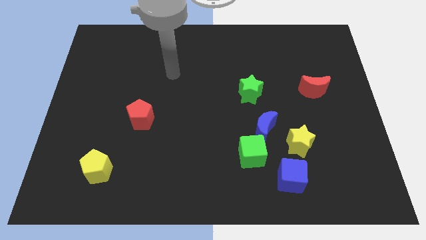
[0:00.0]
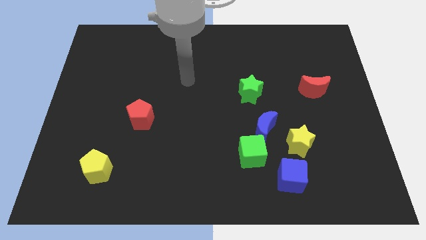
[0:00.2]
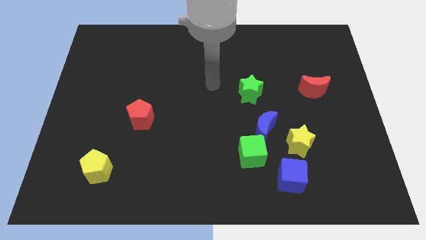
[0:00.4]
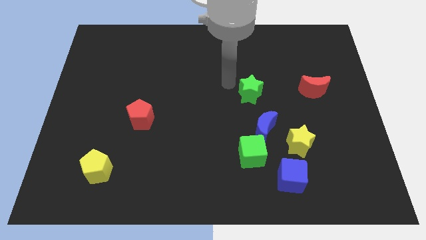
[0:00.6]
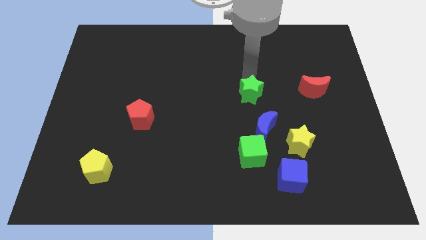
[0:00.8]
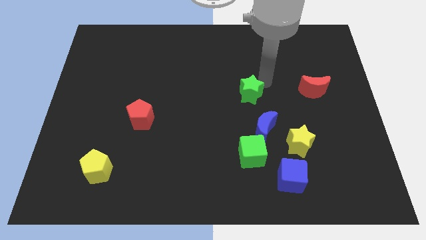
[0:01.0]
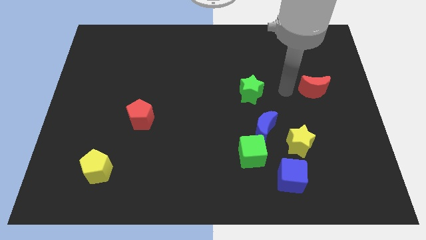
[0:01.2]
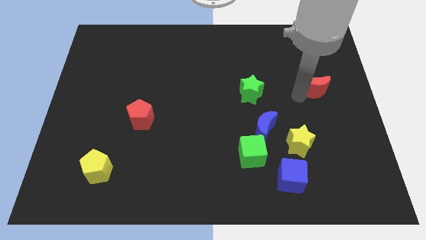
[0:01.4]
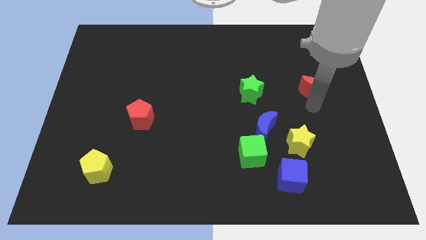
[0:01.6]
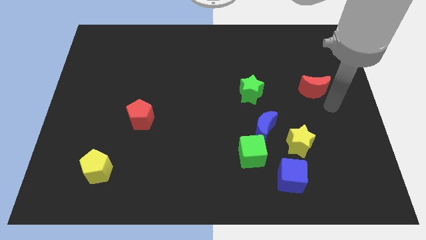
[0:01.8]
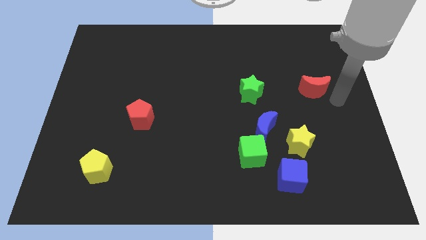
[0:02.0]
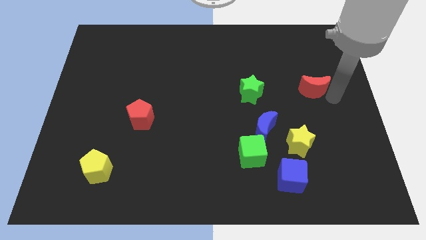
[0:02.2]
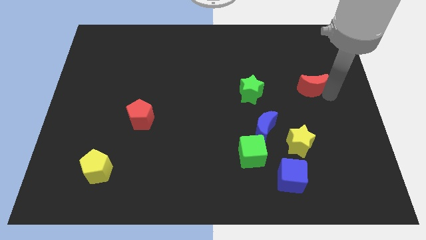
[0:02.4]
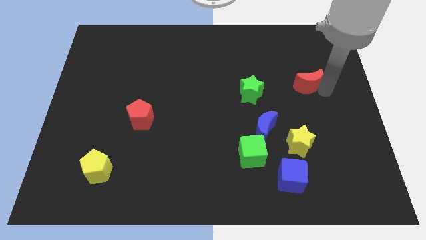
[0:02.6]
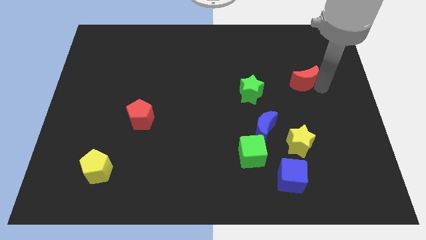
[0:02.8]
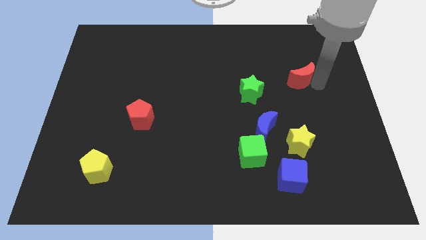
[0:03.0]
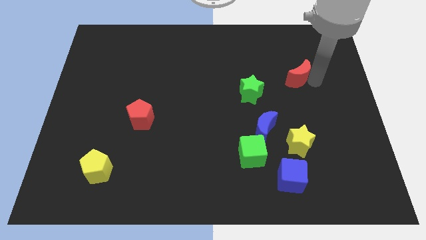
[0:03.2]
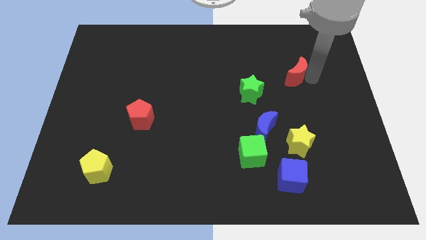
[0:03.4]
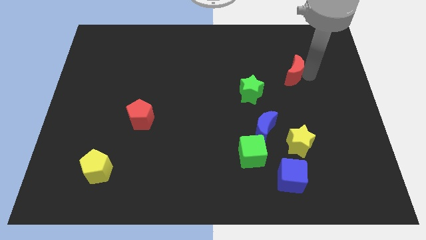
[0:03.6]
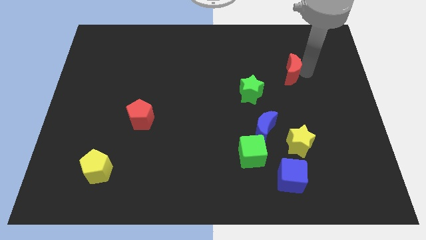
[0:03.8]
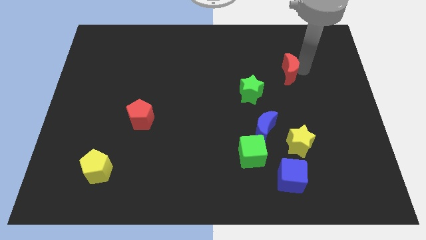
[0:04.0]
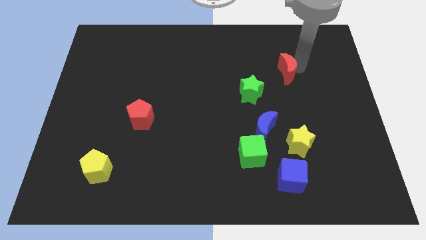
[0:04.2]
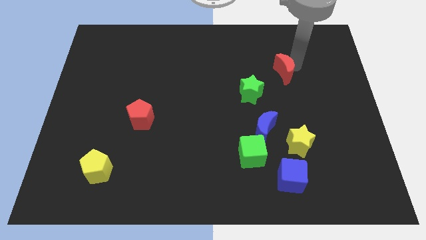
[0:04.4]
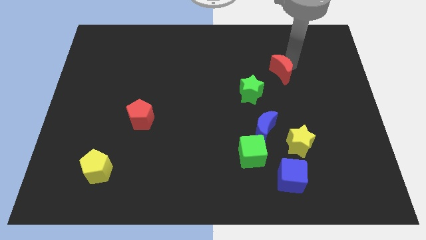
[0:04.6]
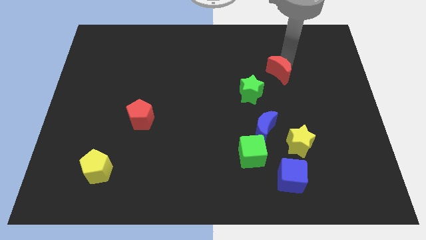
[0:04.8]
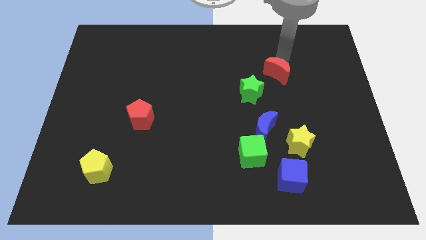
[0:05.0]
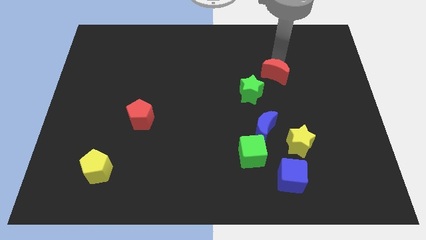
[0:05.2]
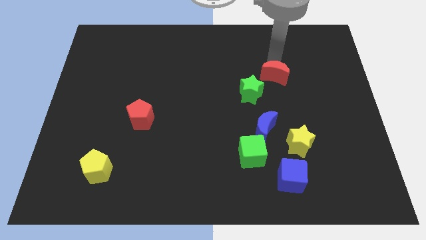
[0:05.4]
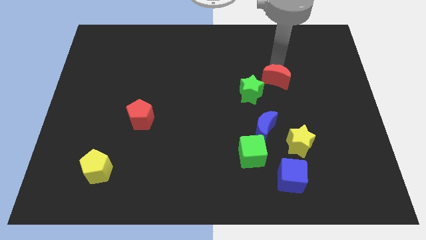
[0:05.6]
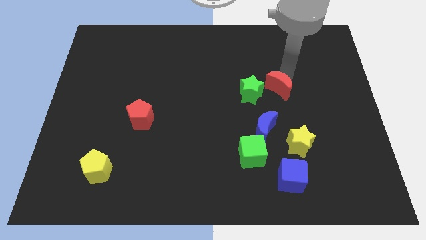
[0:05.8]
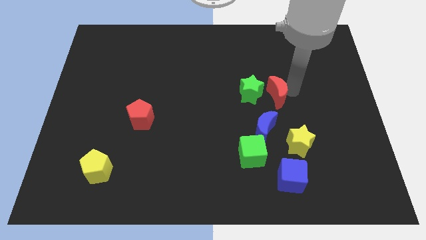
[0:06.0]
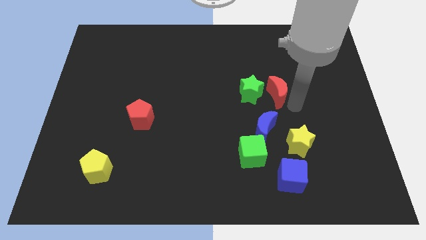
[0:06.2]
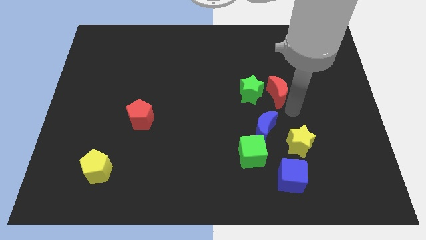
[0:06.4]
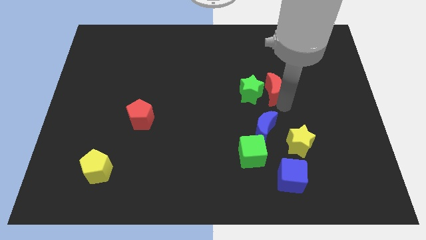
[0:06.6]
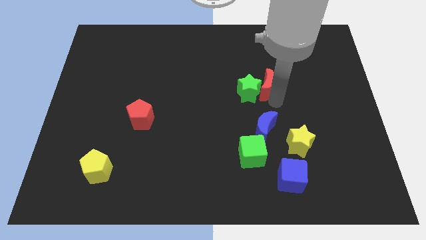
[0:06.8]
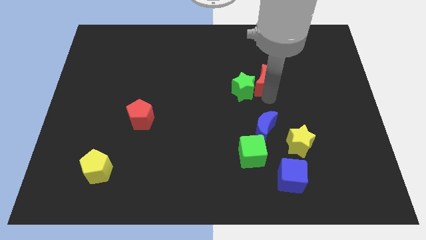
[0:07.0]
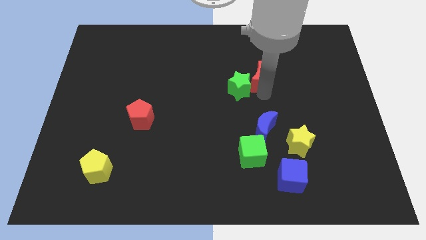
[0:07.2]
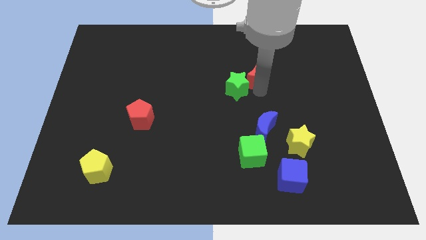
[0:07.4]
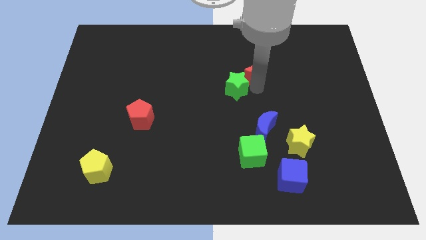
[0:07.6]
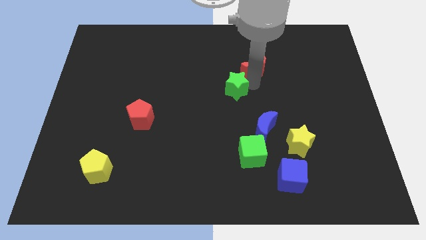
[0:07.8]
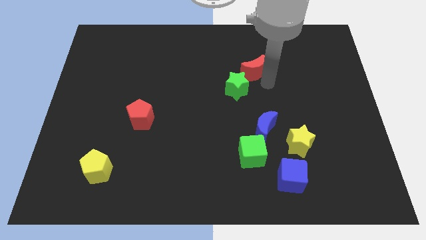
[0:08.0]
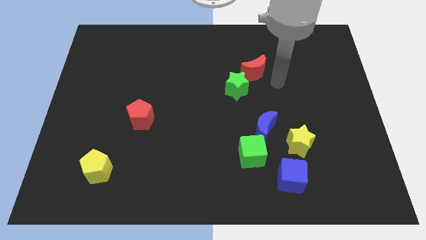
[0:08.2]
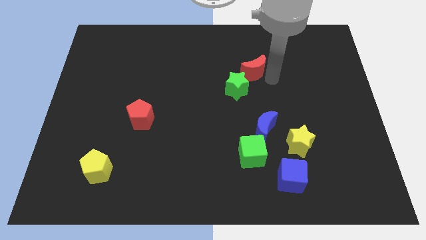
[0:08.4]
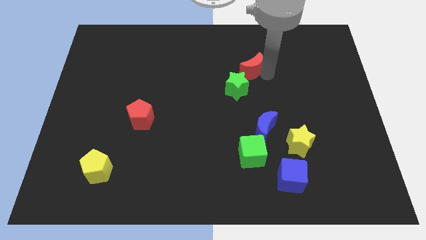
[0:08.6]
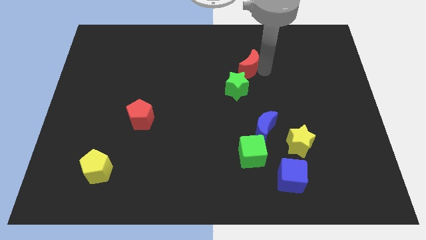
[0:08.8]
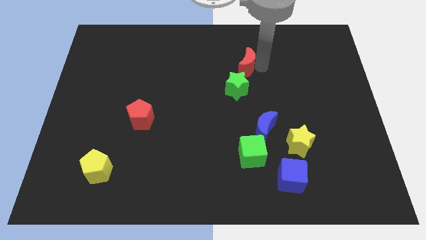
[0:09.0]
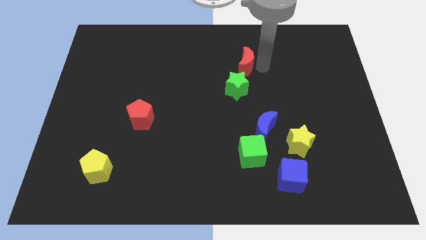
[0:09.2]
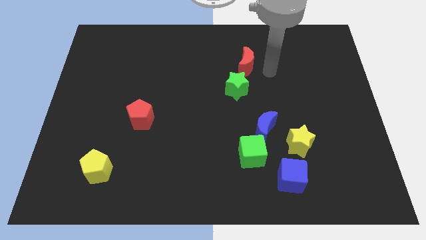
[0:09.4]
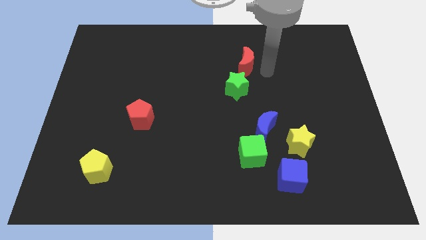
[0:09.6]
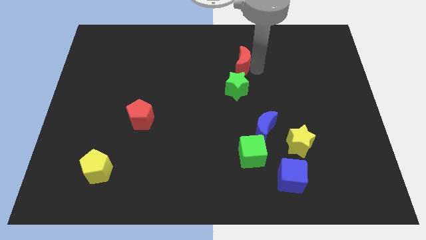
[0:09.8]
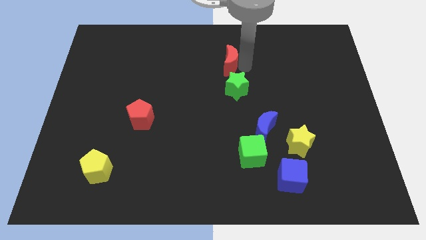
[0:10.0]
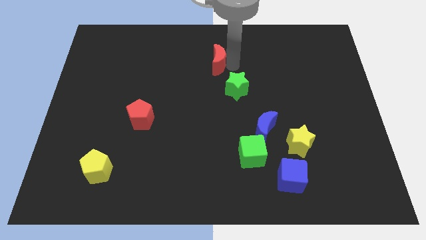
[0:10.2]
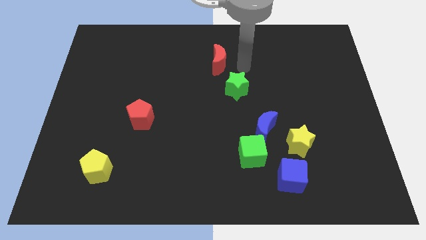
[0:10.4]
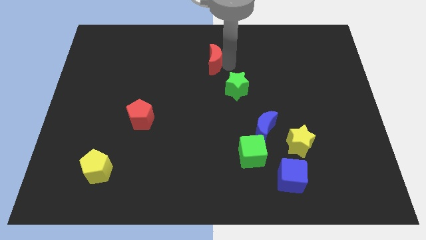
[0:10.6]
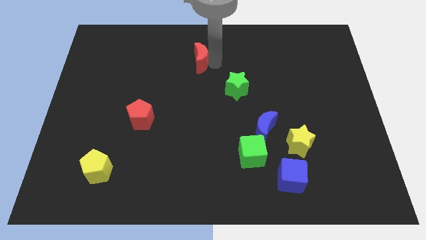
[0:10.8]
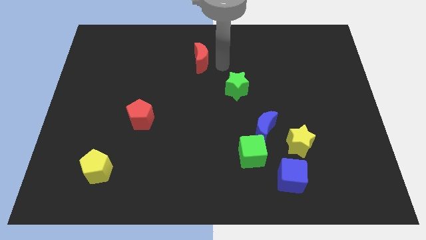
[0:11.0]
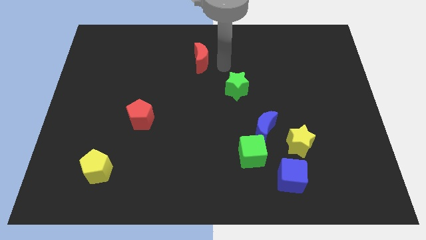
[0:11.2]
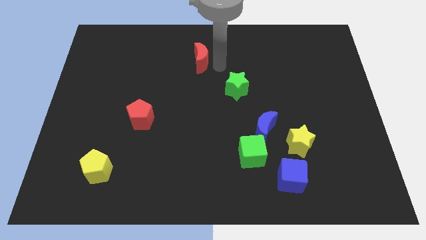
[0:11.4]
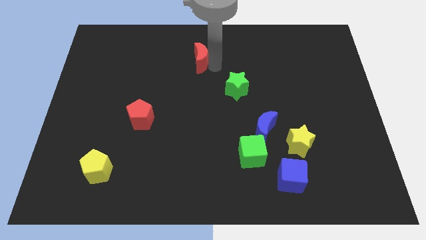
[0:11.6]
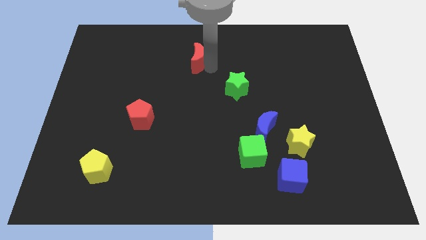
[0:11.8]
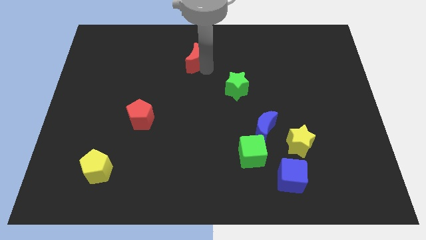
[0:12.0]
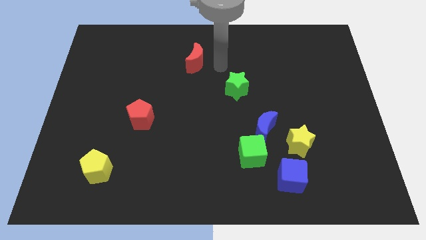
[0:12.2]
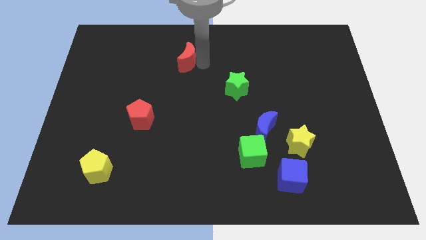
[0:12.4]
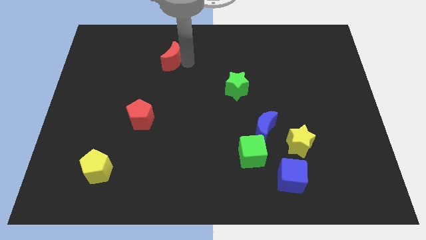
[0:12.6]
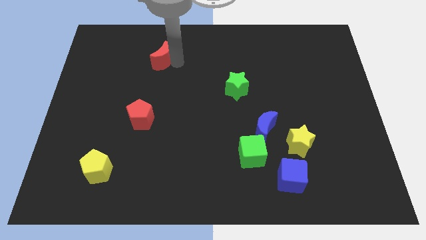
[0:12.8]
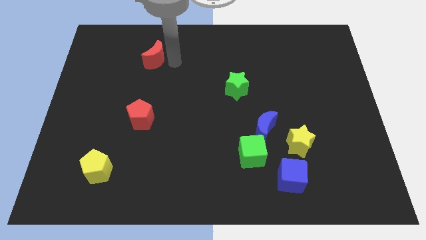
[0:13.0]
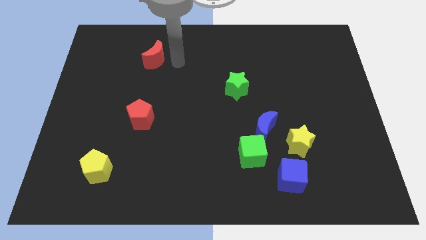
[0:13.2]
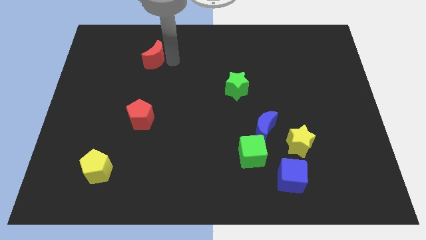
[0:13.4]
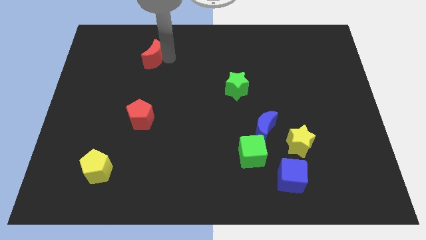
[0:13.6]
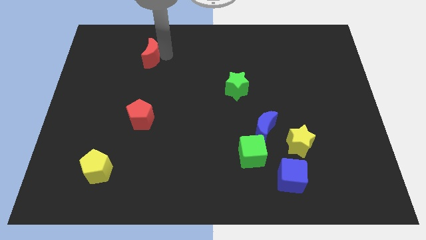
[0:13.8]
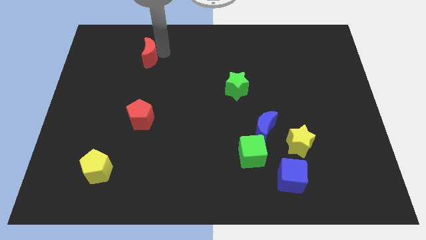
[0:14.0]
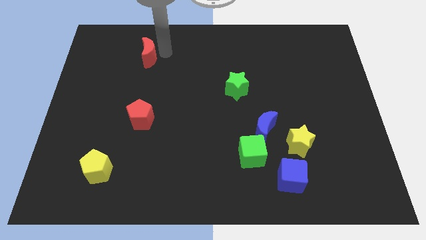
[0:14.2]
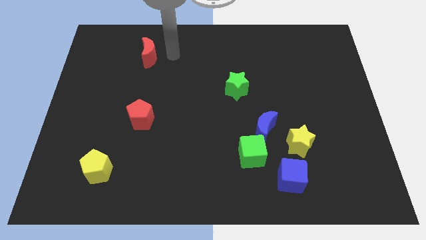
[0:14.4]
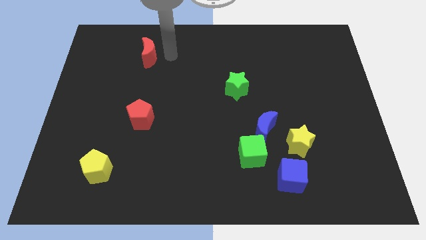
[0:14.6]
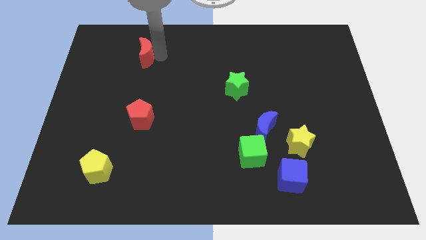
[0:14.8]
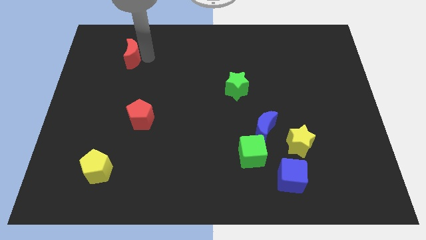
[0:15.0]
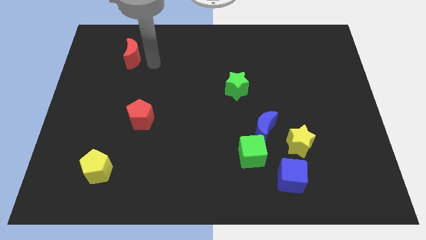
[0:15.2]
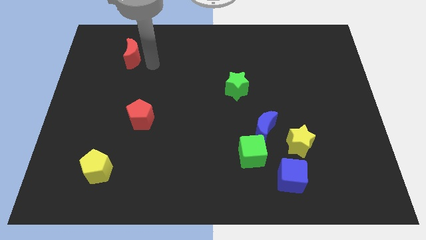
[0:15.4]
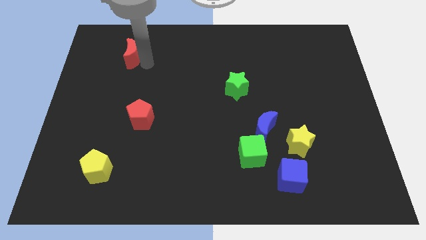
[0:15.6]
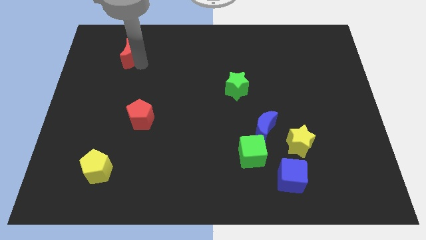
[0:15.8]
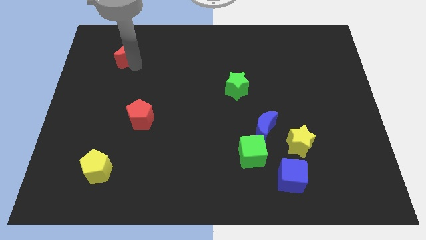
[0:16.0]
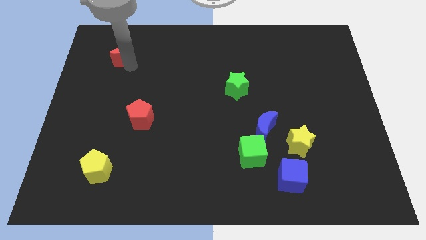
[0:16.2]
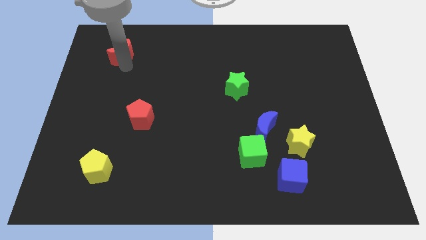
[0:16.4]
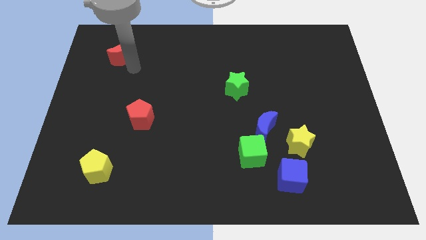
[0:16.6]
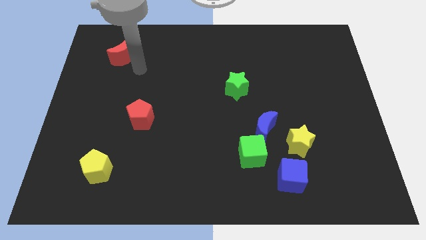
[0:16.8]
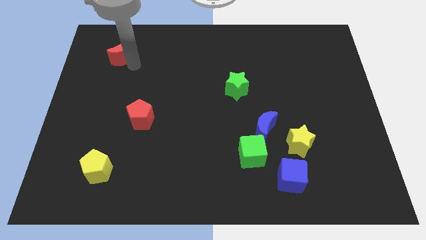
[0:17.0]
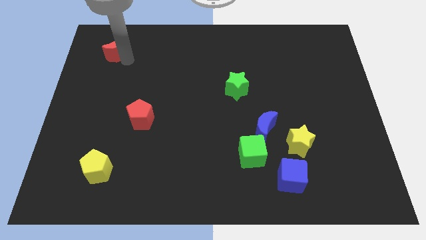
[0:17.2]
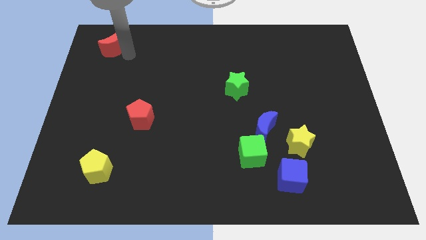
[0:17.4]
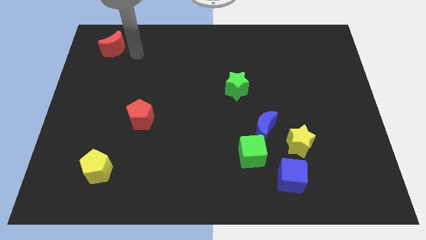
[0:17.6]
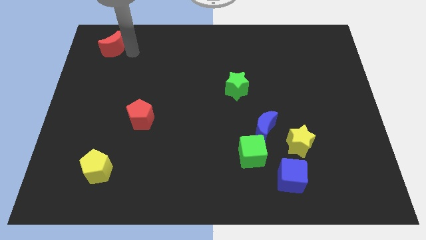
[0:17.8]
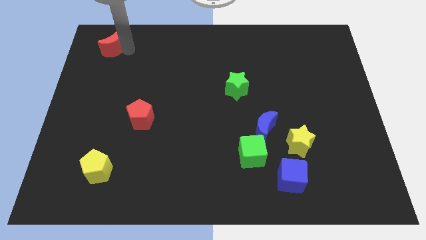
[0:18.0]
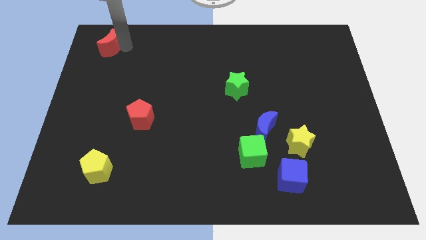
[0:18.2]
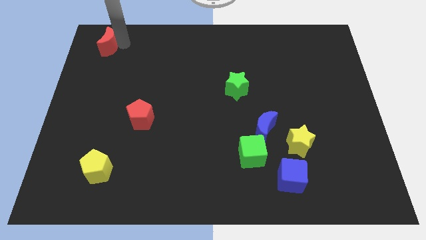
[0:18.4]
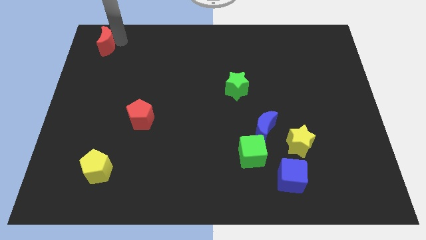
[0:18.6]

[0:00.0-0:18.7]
move the red moon to the top left
